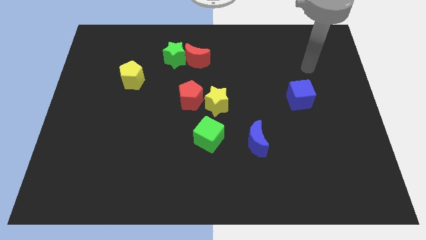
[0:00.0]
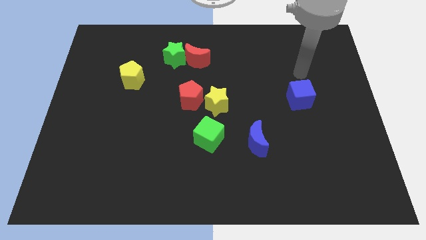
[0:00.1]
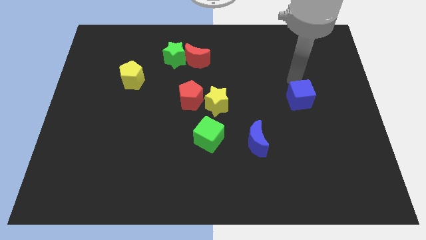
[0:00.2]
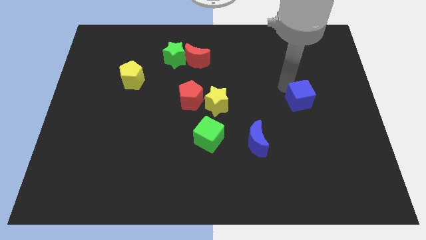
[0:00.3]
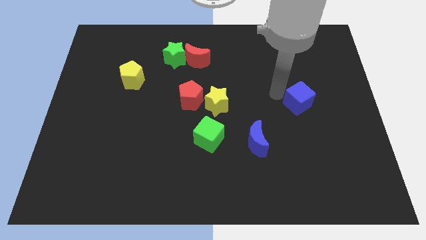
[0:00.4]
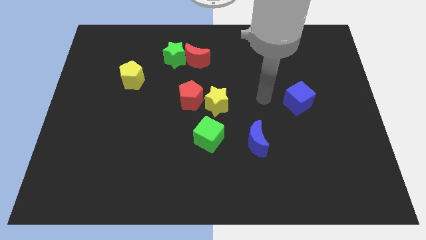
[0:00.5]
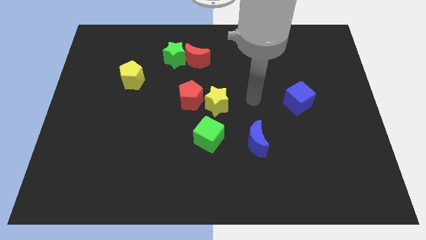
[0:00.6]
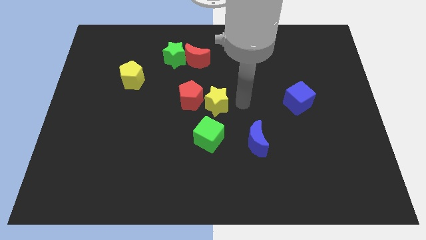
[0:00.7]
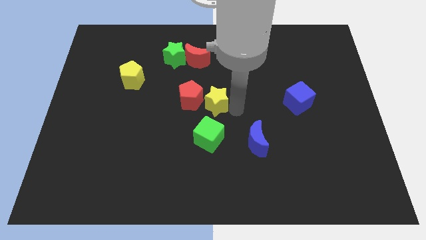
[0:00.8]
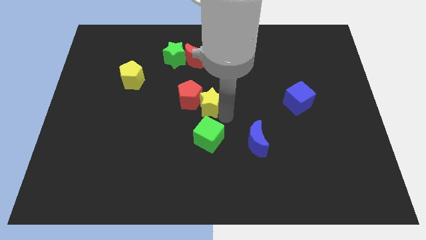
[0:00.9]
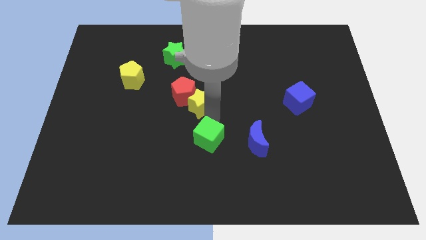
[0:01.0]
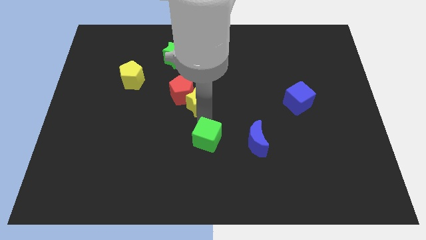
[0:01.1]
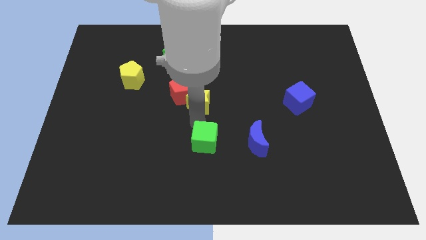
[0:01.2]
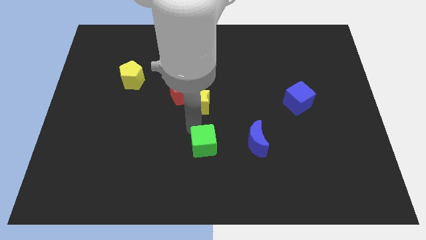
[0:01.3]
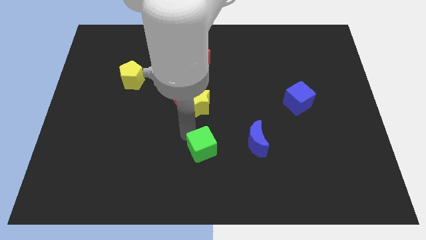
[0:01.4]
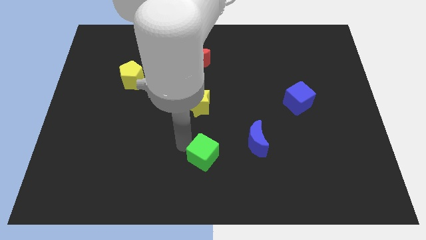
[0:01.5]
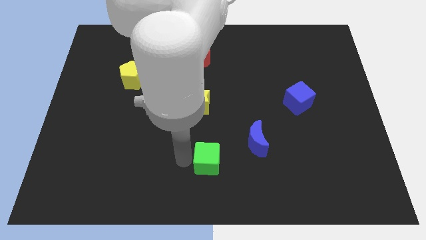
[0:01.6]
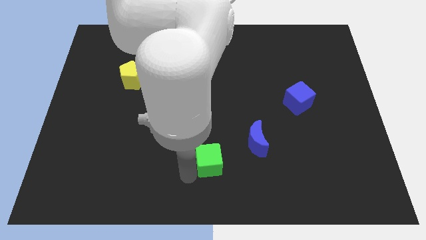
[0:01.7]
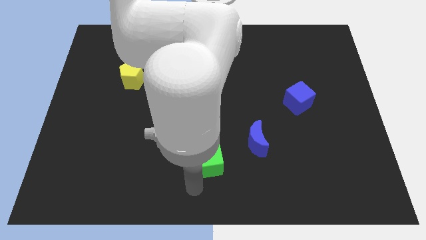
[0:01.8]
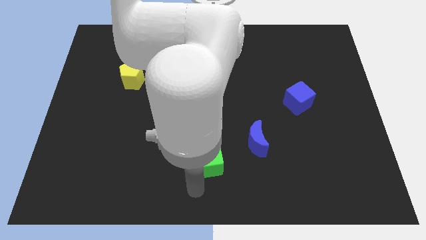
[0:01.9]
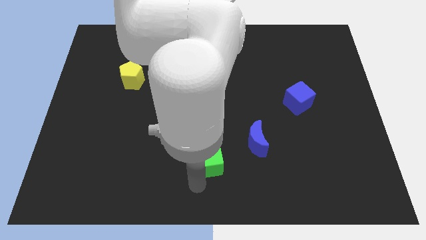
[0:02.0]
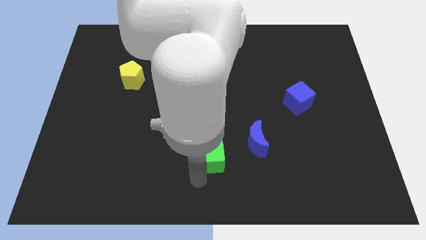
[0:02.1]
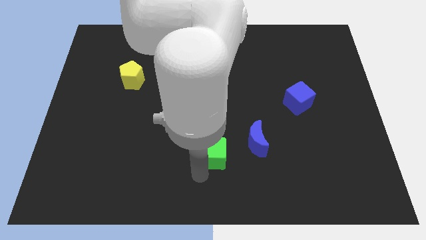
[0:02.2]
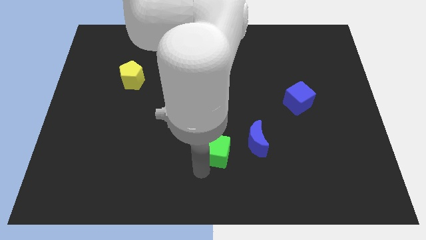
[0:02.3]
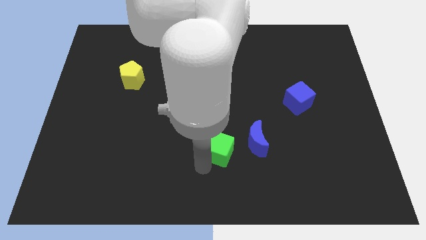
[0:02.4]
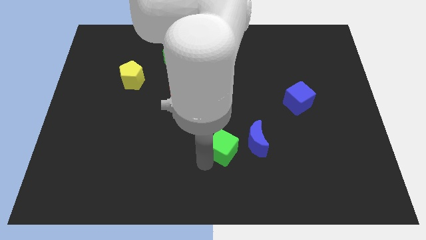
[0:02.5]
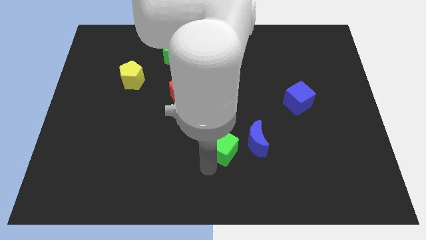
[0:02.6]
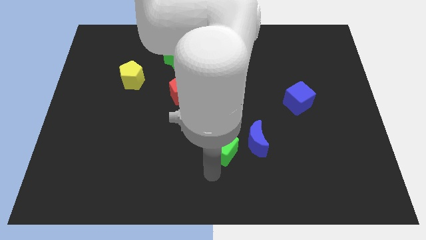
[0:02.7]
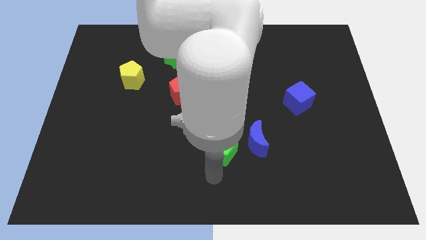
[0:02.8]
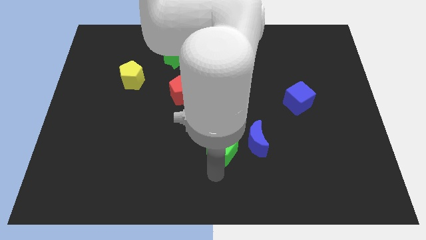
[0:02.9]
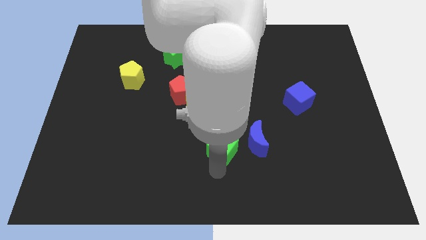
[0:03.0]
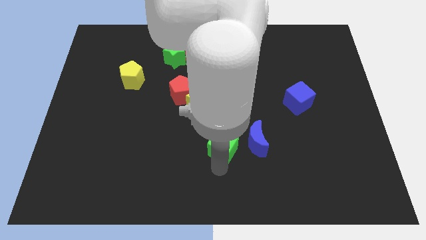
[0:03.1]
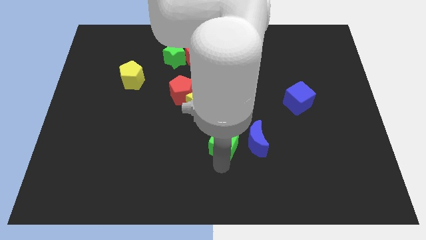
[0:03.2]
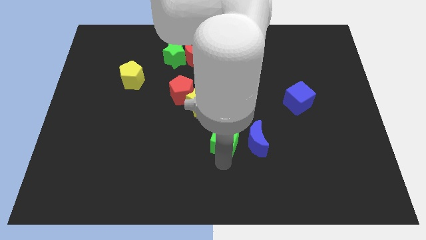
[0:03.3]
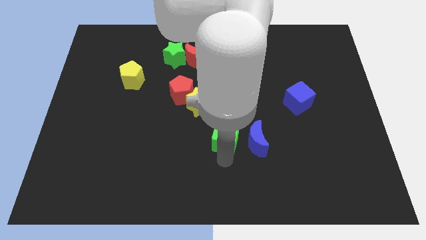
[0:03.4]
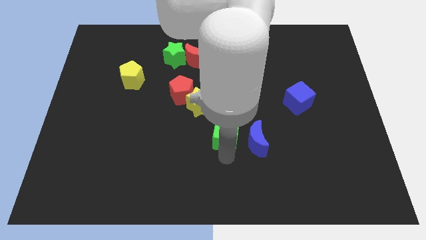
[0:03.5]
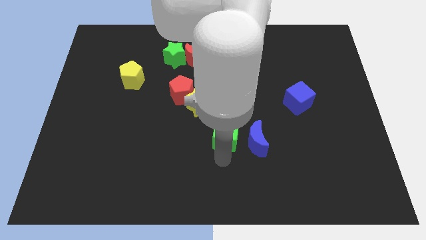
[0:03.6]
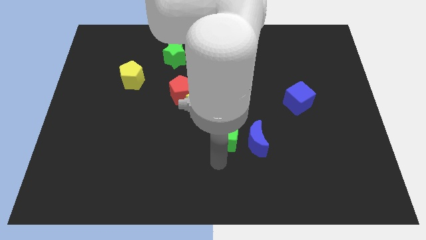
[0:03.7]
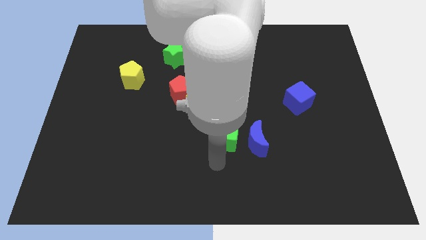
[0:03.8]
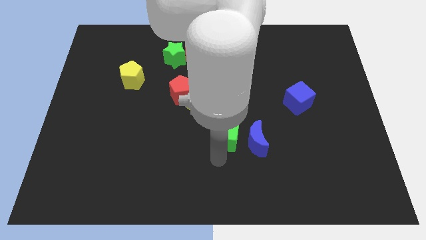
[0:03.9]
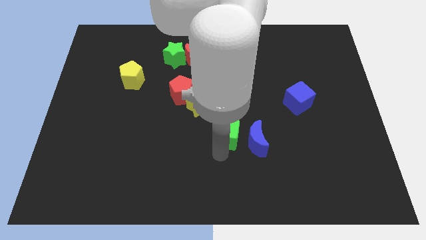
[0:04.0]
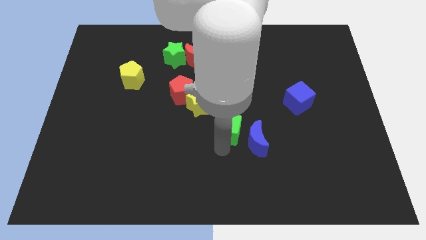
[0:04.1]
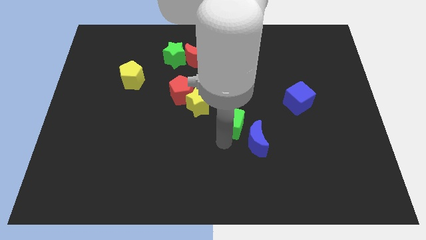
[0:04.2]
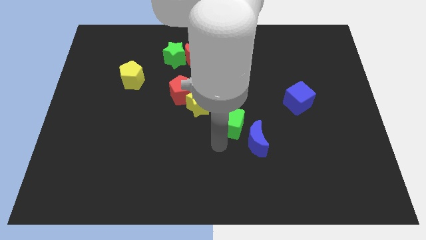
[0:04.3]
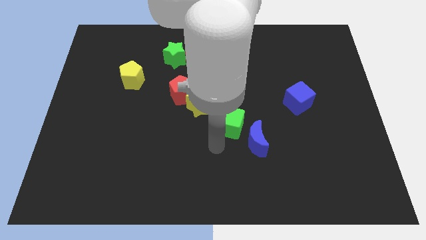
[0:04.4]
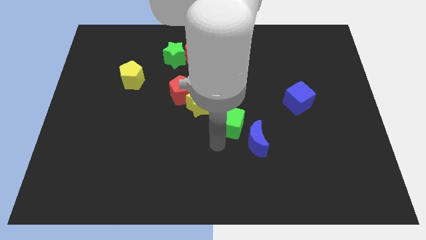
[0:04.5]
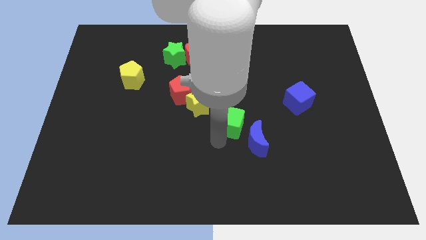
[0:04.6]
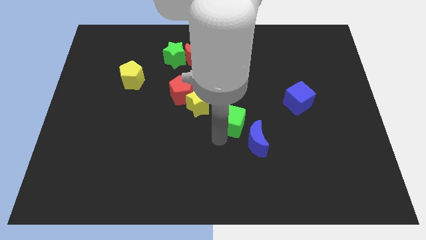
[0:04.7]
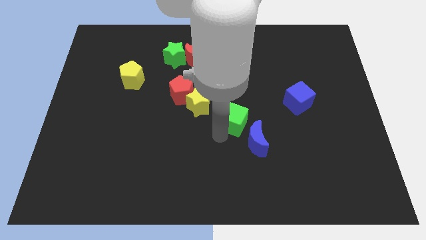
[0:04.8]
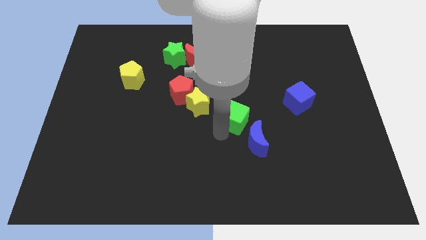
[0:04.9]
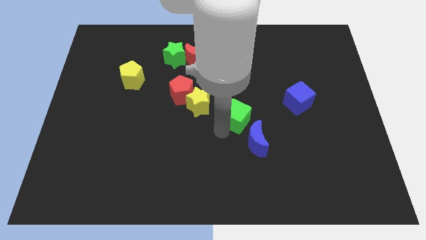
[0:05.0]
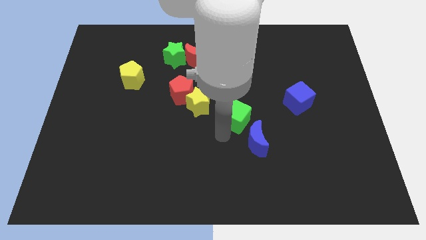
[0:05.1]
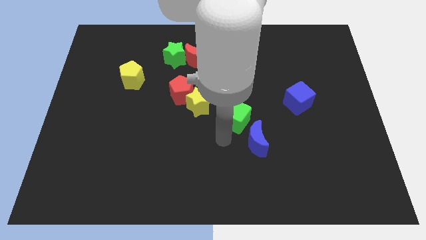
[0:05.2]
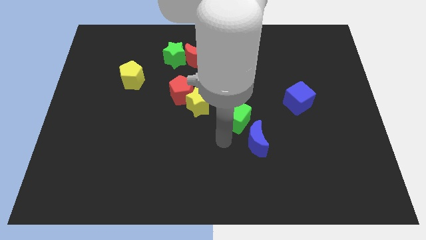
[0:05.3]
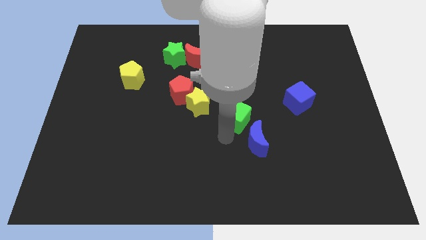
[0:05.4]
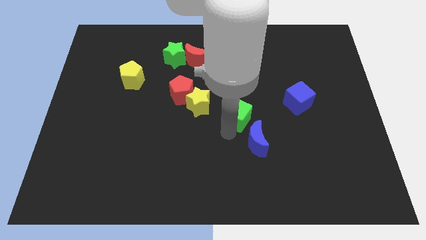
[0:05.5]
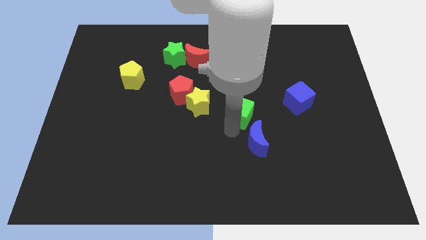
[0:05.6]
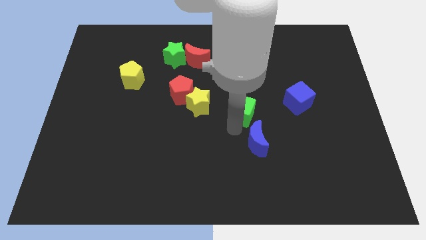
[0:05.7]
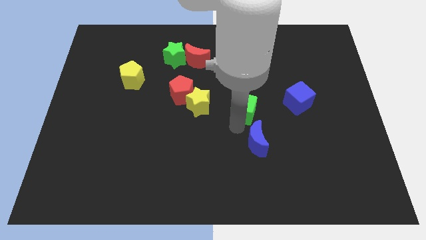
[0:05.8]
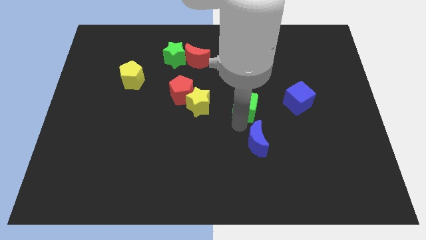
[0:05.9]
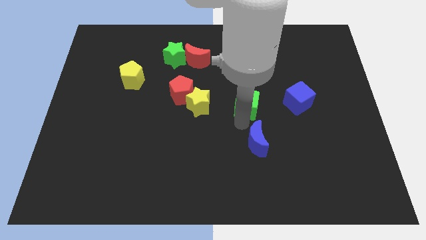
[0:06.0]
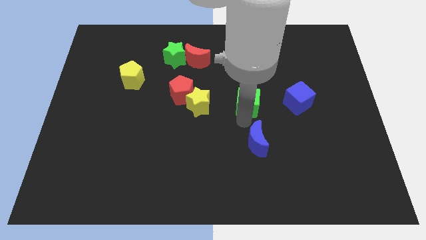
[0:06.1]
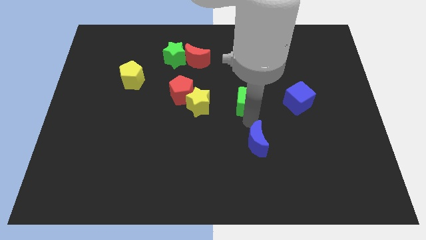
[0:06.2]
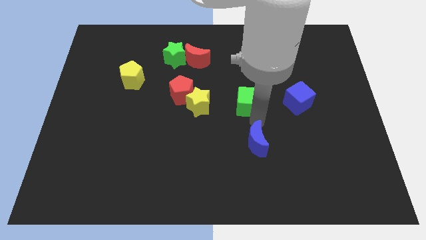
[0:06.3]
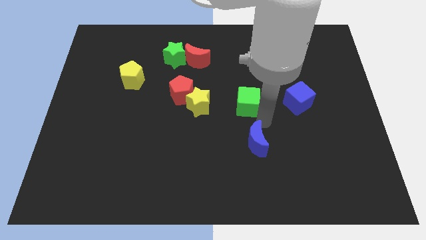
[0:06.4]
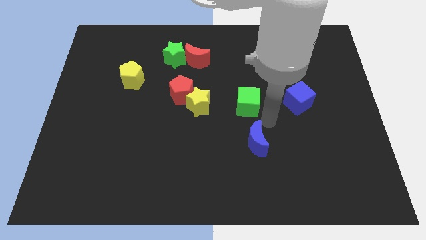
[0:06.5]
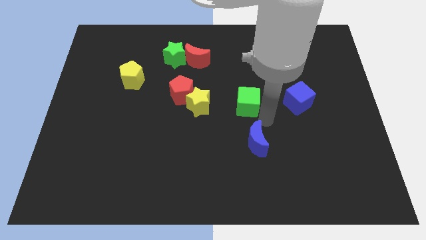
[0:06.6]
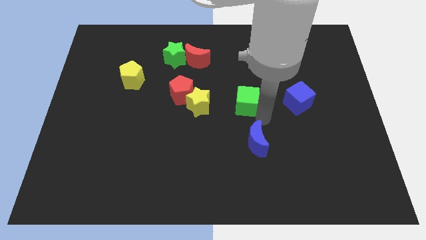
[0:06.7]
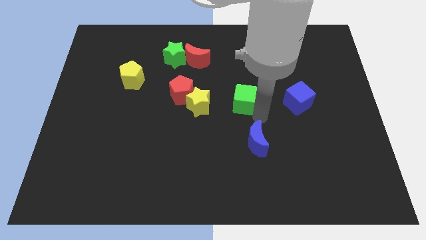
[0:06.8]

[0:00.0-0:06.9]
slide the green cube somewhat upwards

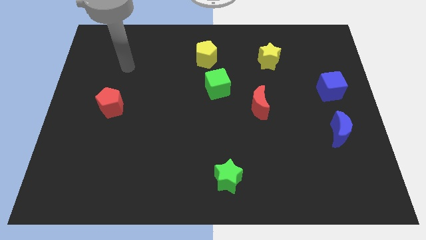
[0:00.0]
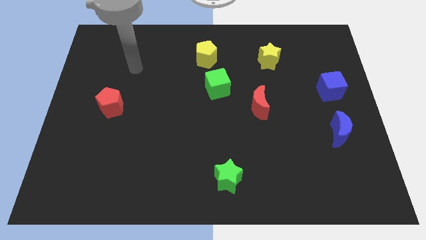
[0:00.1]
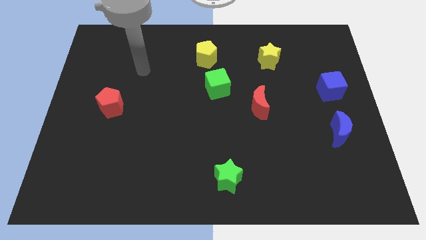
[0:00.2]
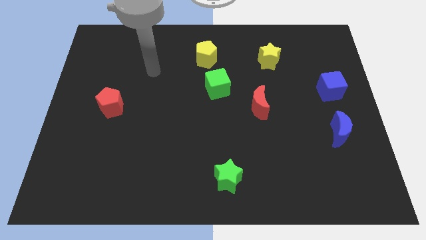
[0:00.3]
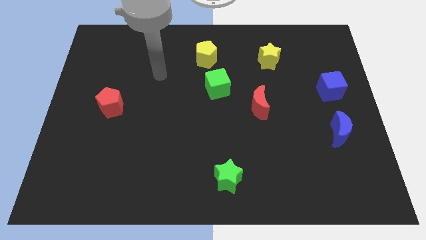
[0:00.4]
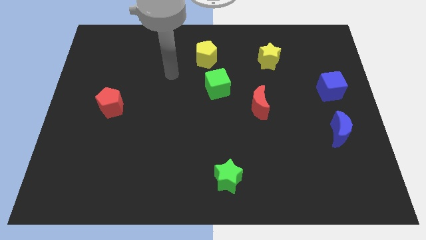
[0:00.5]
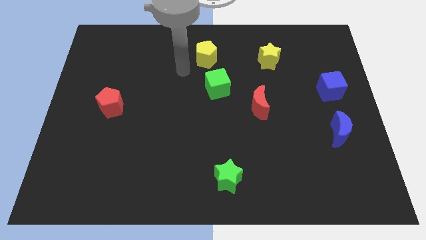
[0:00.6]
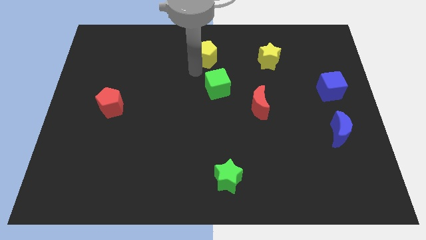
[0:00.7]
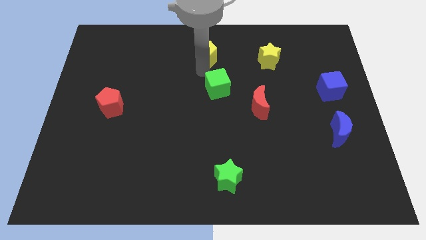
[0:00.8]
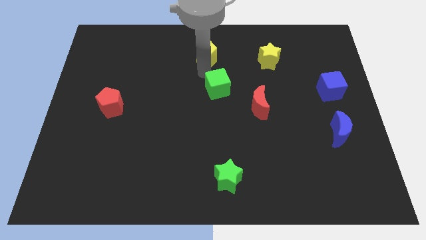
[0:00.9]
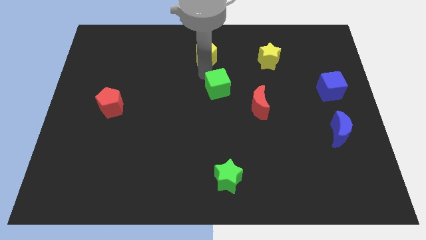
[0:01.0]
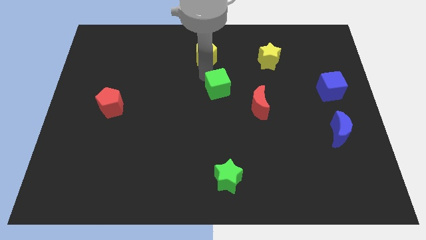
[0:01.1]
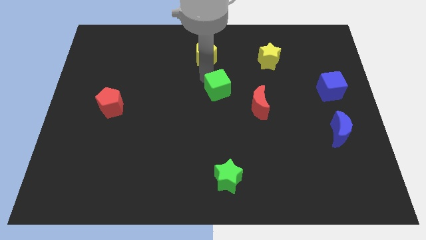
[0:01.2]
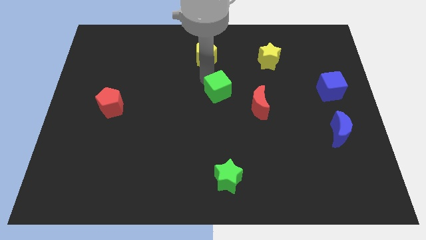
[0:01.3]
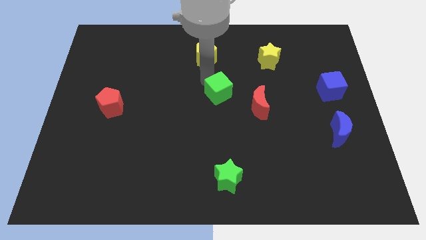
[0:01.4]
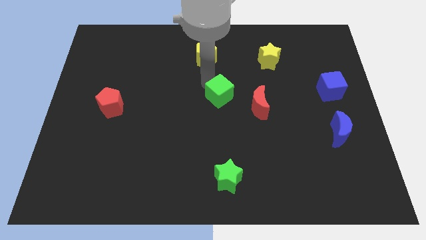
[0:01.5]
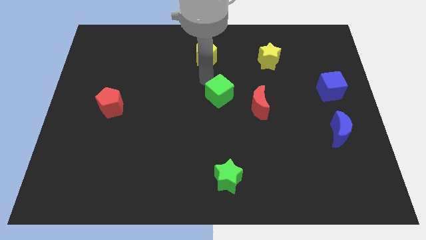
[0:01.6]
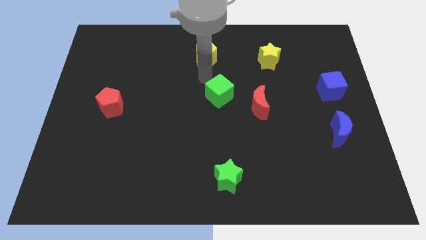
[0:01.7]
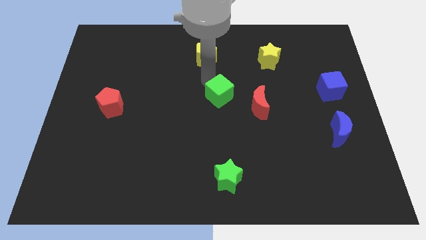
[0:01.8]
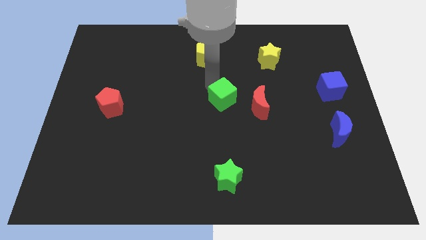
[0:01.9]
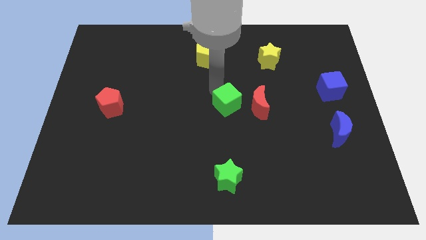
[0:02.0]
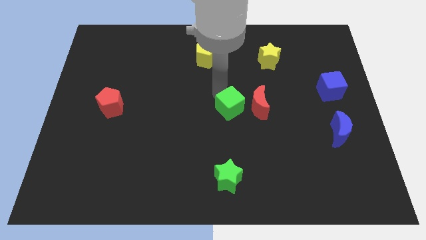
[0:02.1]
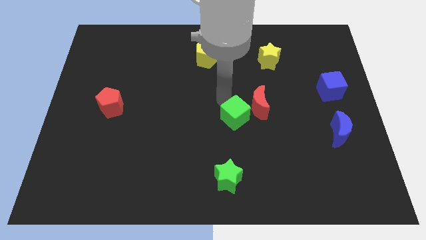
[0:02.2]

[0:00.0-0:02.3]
push the green cube slightly down and then to the right
